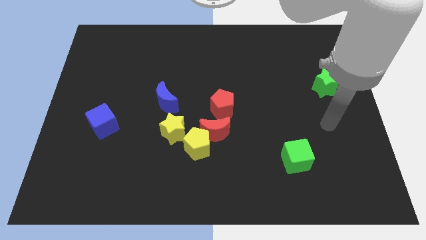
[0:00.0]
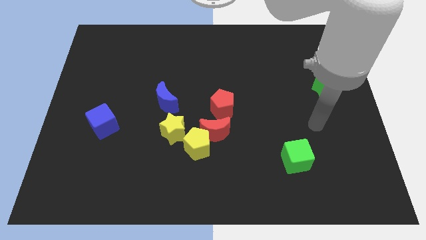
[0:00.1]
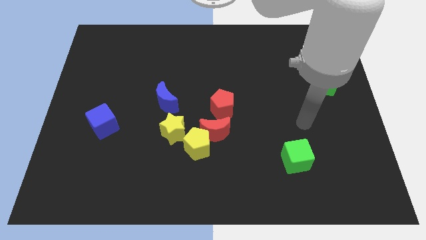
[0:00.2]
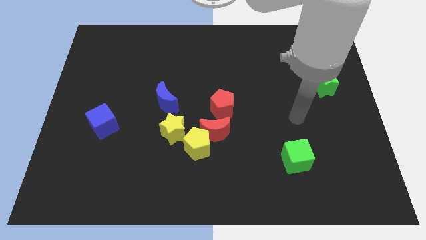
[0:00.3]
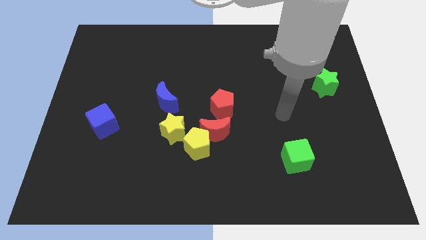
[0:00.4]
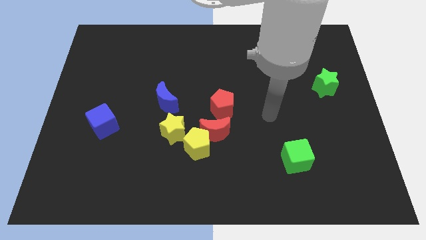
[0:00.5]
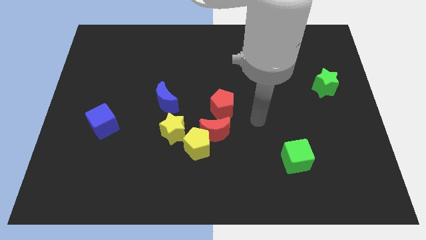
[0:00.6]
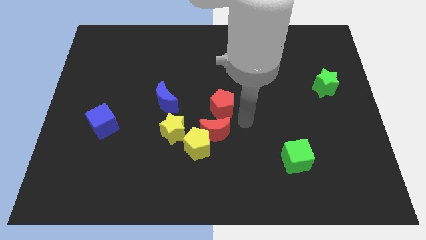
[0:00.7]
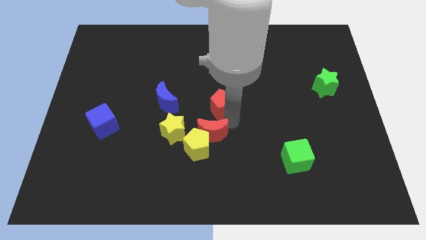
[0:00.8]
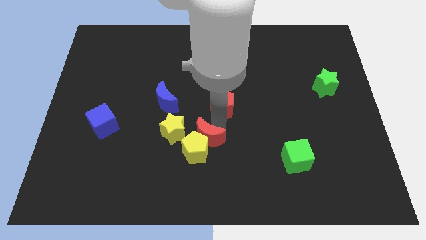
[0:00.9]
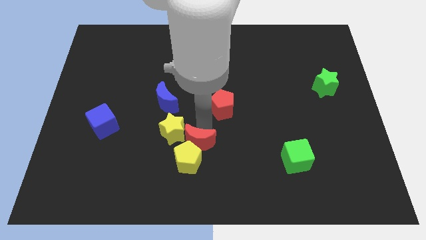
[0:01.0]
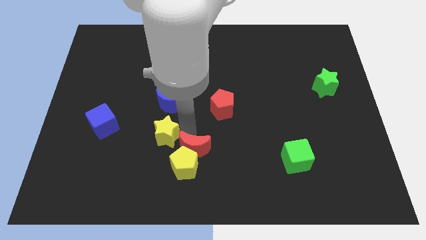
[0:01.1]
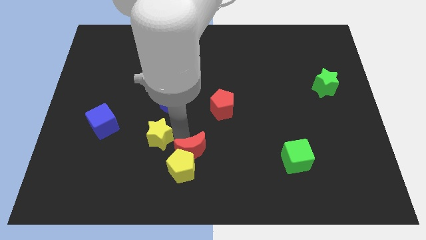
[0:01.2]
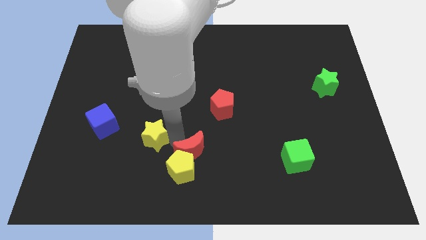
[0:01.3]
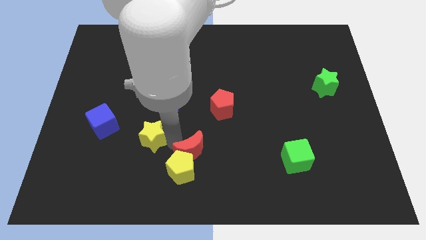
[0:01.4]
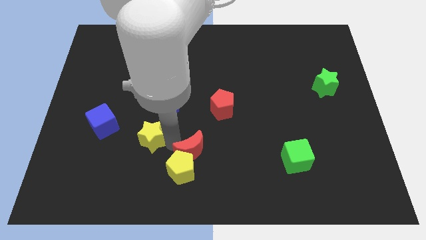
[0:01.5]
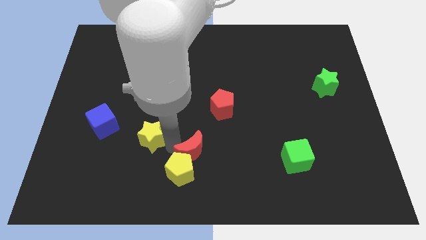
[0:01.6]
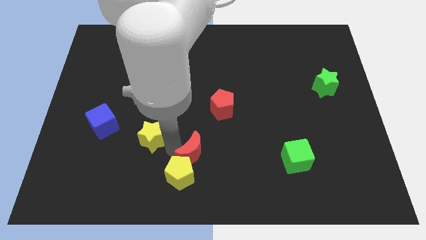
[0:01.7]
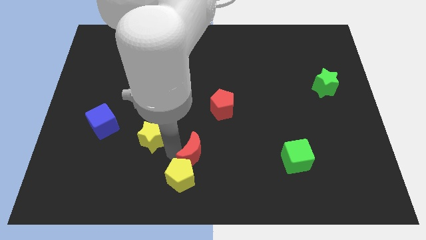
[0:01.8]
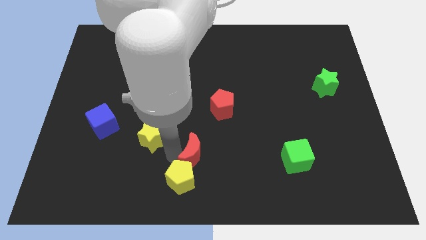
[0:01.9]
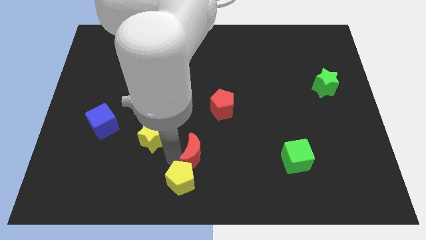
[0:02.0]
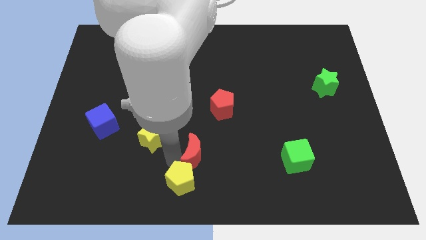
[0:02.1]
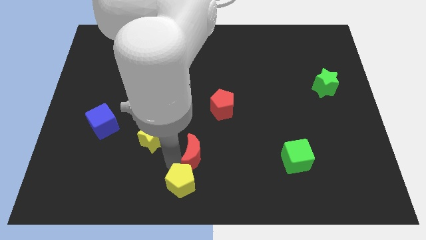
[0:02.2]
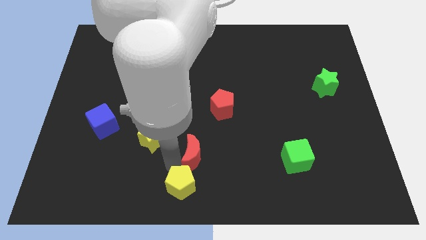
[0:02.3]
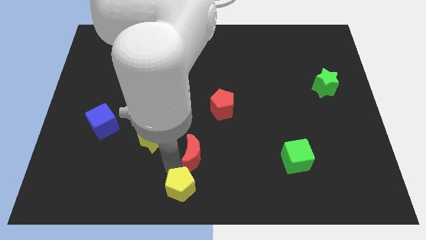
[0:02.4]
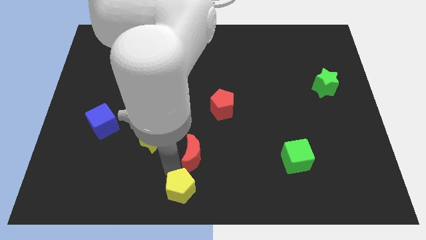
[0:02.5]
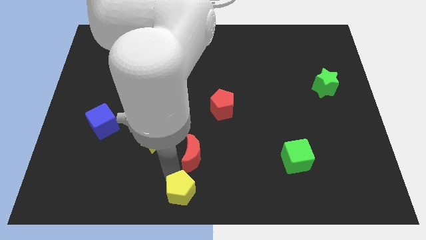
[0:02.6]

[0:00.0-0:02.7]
separate the yellow pentagon from the red moon and yellow star

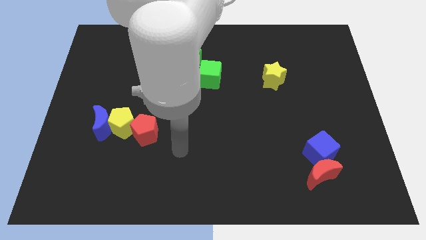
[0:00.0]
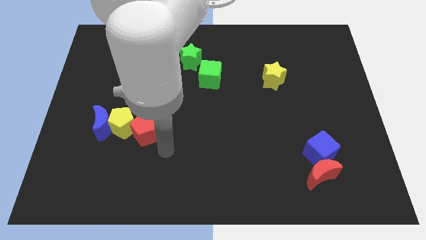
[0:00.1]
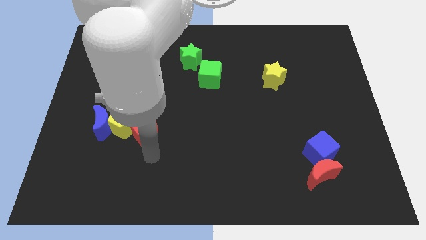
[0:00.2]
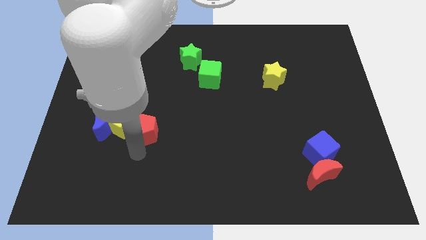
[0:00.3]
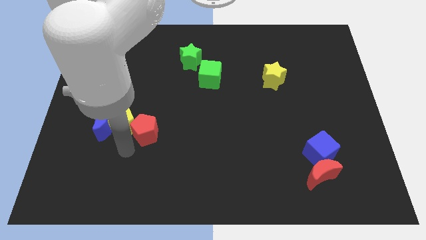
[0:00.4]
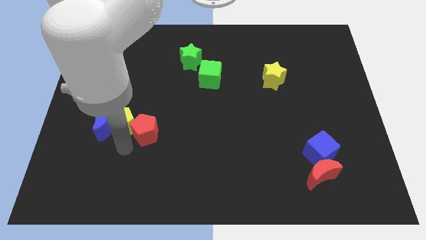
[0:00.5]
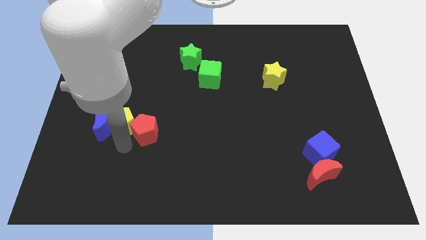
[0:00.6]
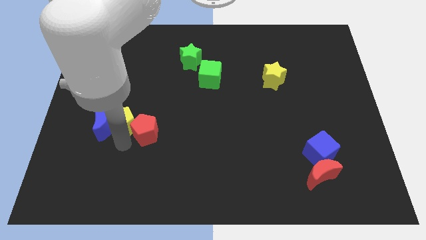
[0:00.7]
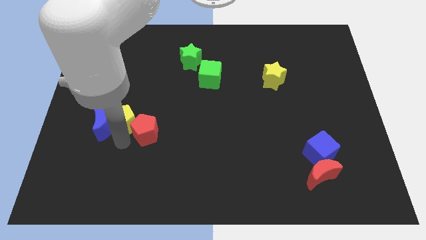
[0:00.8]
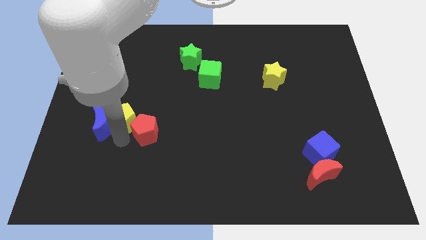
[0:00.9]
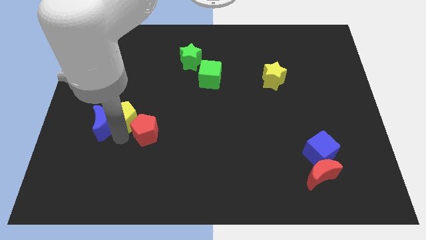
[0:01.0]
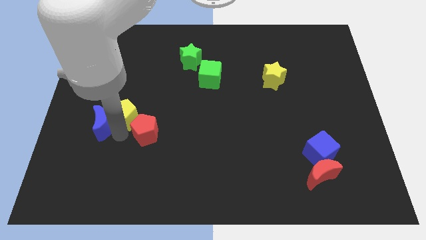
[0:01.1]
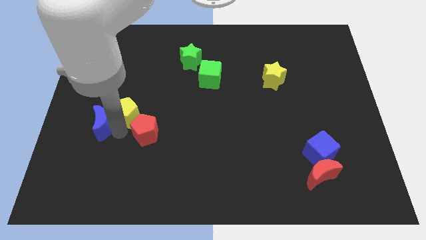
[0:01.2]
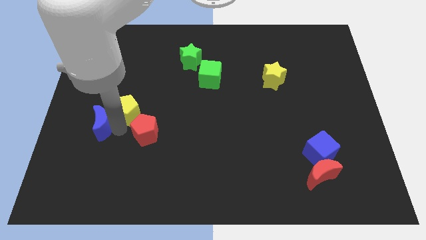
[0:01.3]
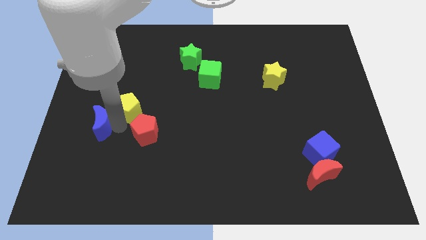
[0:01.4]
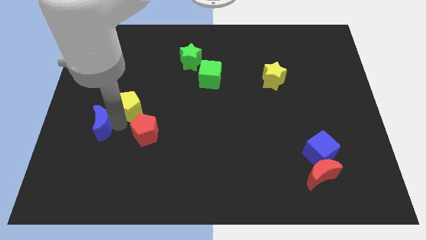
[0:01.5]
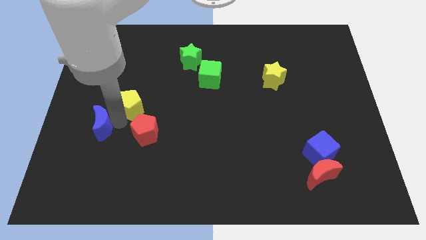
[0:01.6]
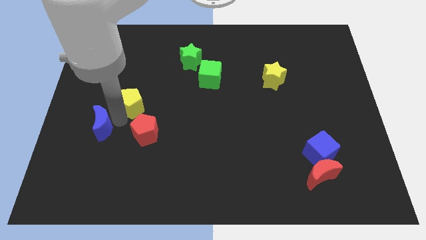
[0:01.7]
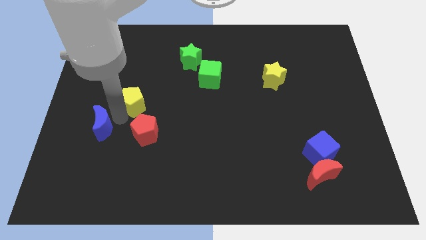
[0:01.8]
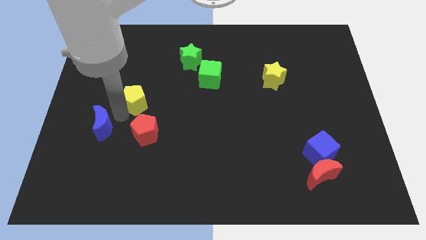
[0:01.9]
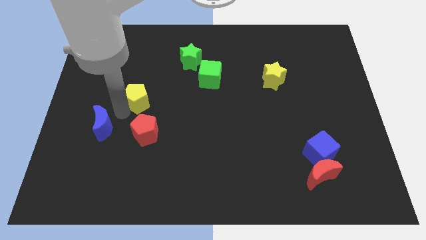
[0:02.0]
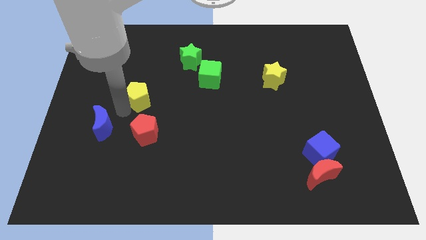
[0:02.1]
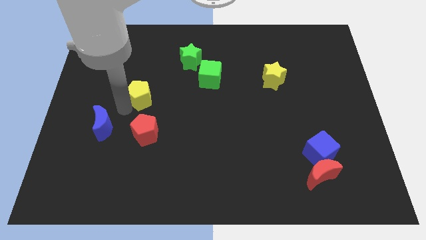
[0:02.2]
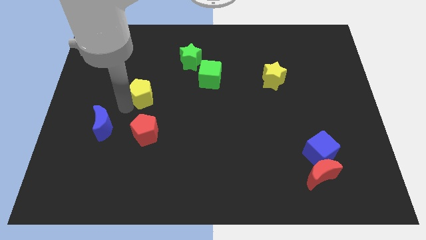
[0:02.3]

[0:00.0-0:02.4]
separate the yellow pentagon from the blue moon and red pentagon

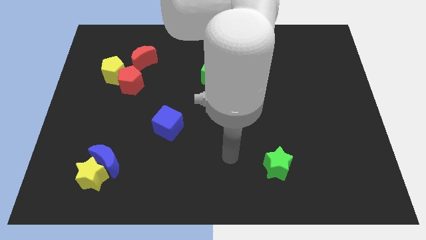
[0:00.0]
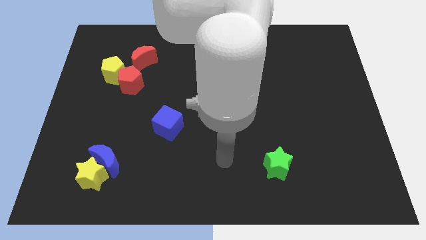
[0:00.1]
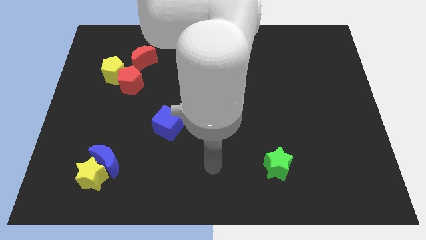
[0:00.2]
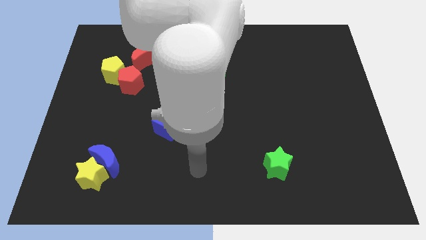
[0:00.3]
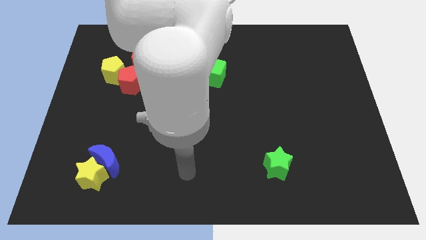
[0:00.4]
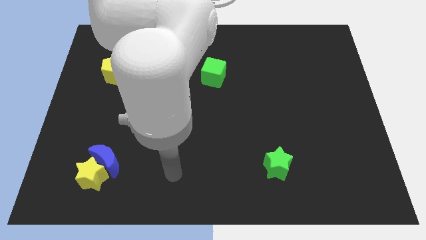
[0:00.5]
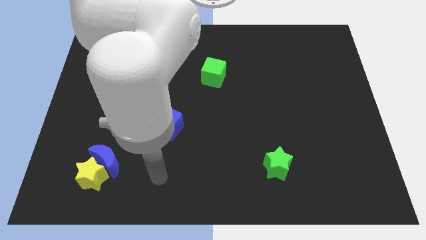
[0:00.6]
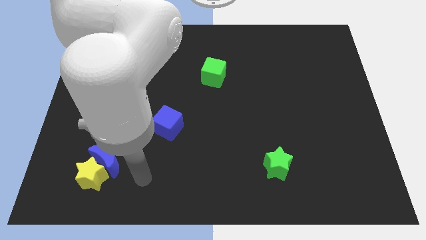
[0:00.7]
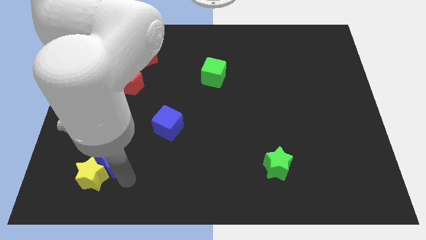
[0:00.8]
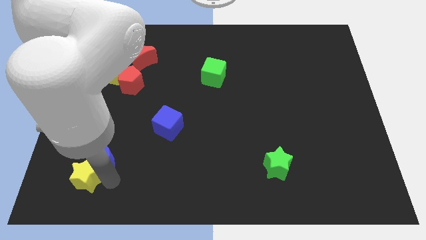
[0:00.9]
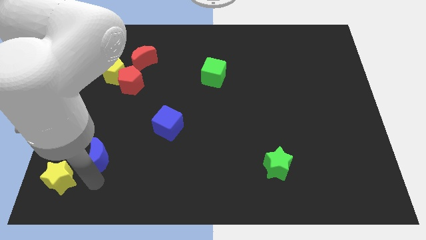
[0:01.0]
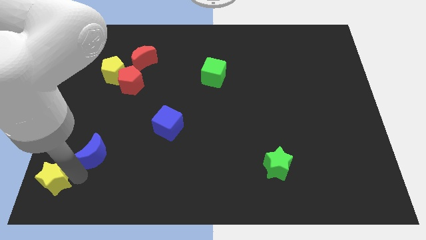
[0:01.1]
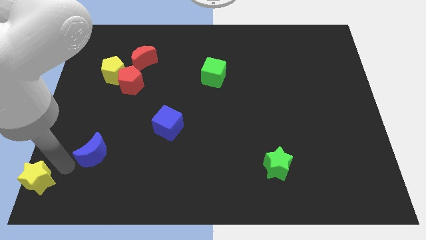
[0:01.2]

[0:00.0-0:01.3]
move the blue moon away from the yellow star

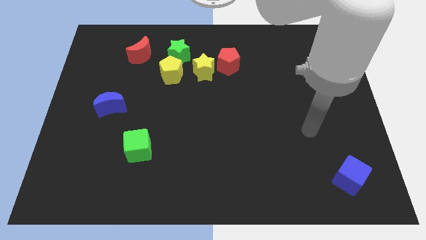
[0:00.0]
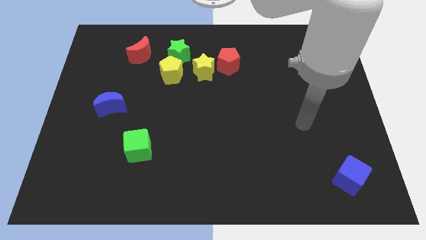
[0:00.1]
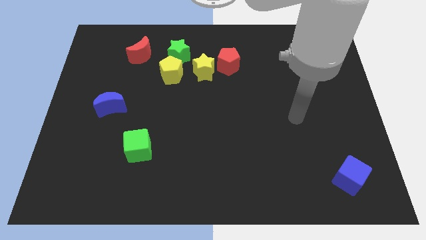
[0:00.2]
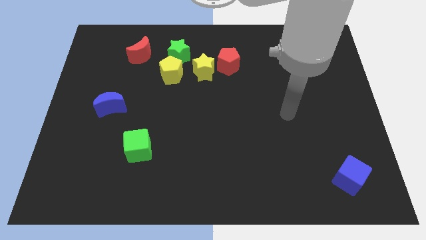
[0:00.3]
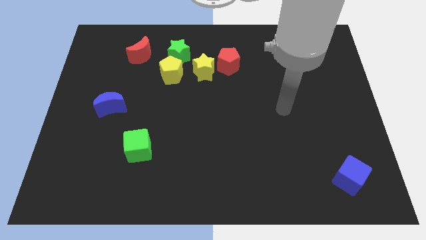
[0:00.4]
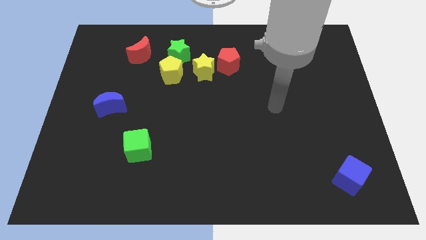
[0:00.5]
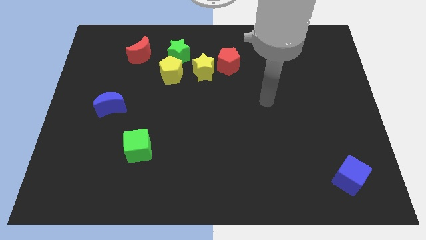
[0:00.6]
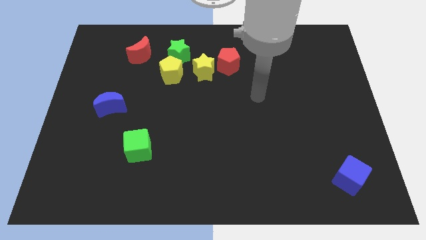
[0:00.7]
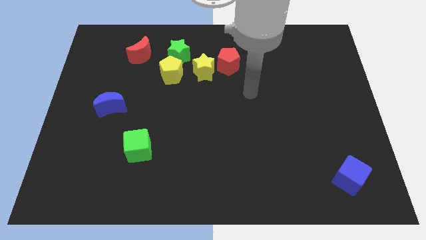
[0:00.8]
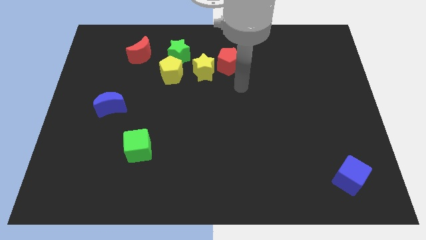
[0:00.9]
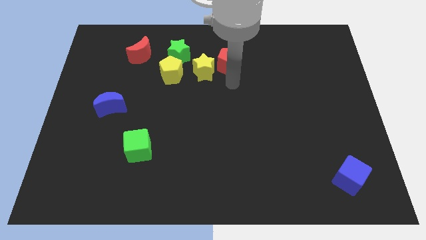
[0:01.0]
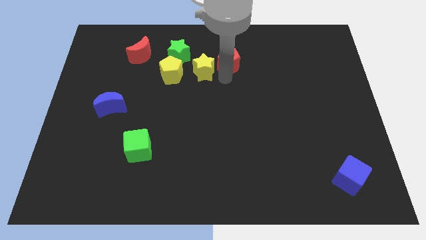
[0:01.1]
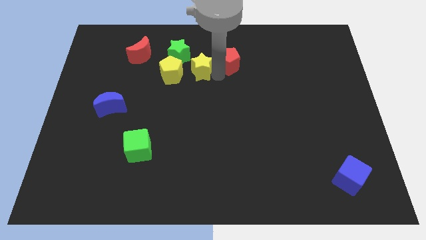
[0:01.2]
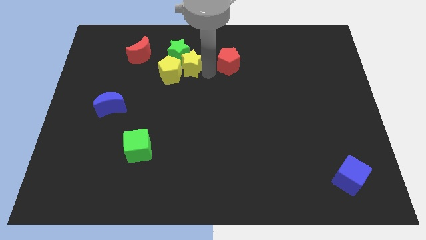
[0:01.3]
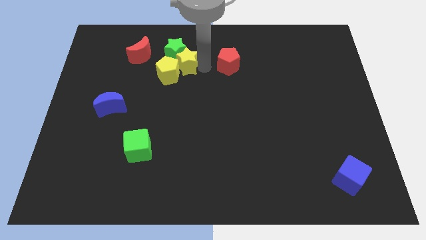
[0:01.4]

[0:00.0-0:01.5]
separate the red pentagon from the yellow star

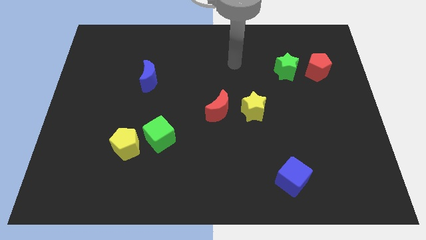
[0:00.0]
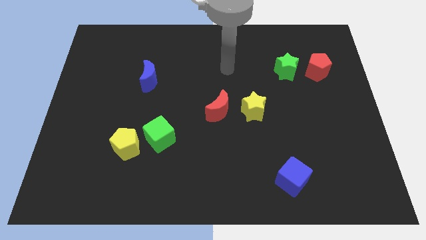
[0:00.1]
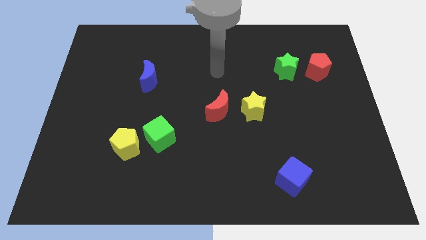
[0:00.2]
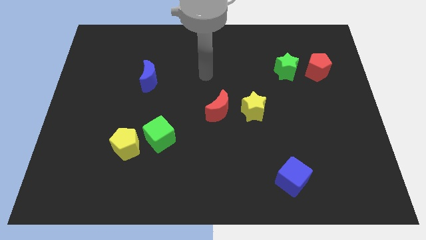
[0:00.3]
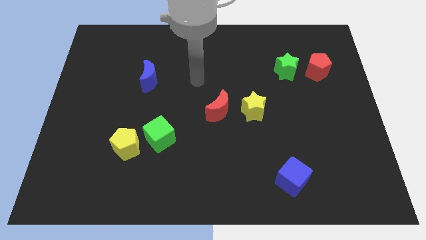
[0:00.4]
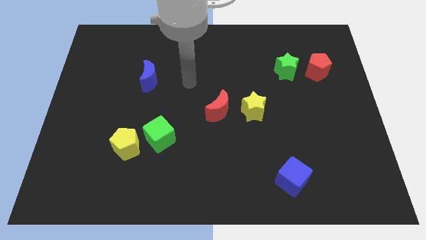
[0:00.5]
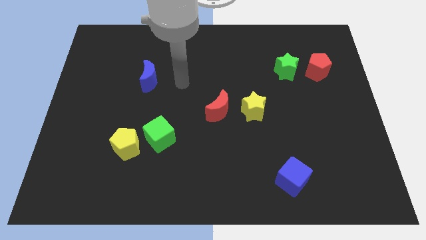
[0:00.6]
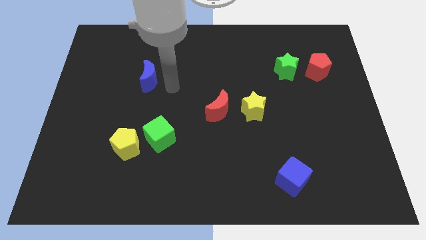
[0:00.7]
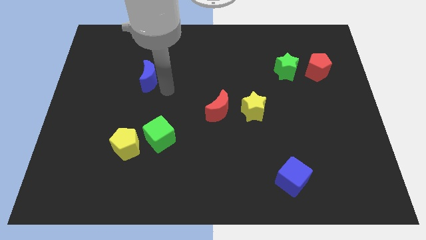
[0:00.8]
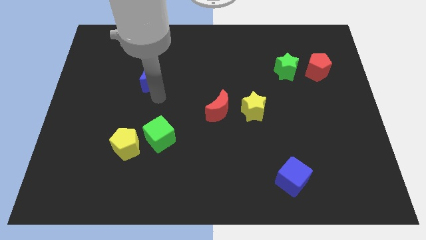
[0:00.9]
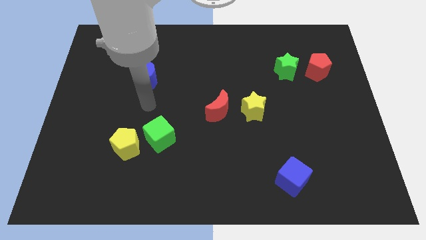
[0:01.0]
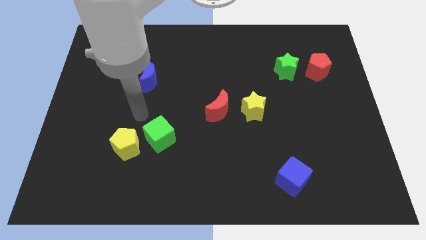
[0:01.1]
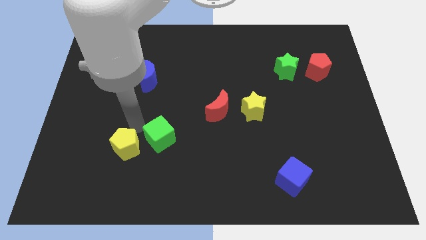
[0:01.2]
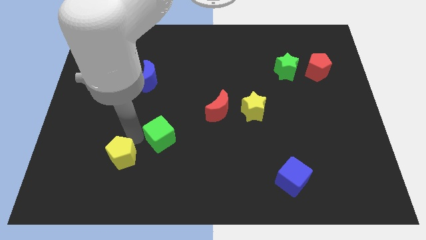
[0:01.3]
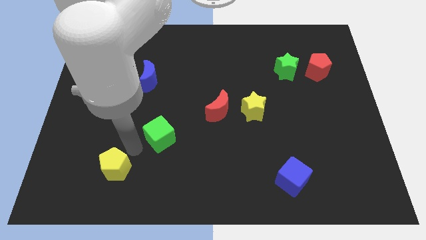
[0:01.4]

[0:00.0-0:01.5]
separate the green cube from the yellow pentagon
